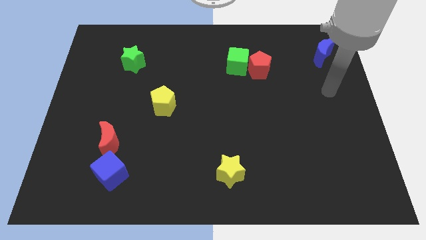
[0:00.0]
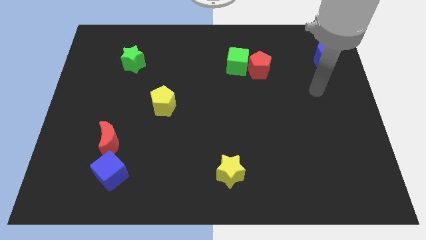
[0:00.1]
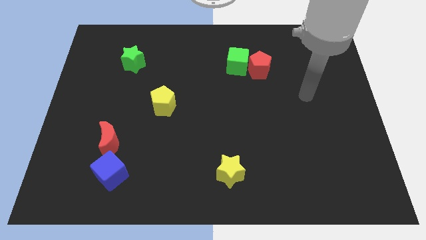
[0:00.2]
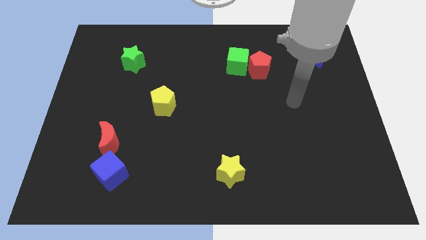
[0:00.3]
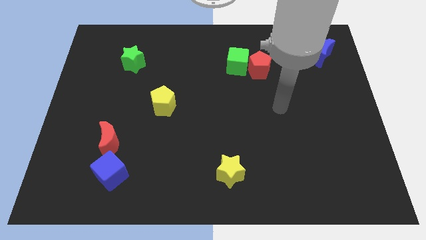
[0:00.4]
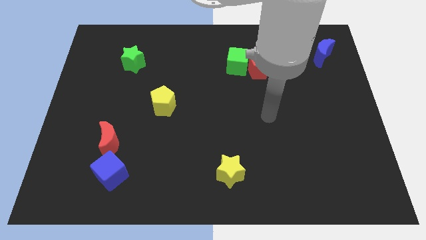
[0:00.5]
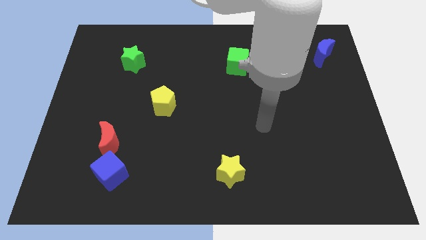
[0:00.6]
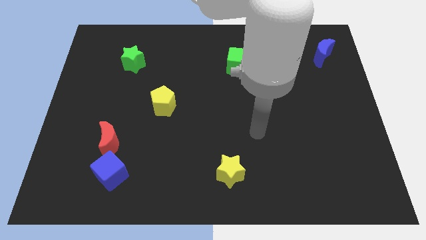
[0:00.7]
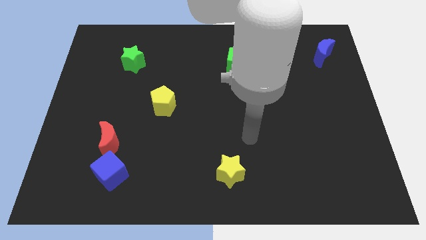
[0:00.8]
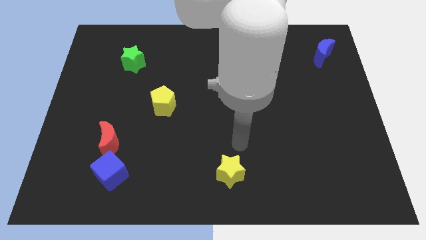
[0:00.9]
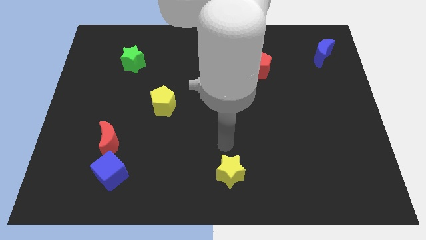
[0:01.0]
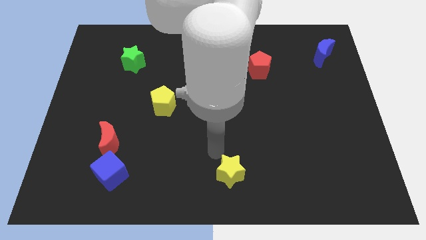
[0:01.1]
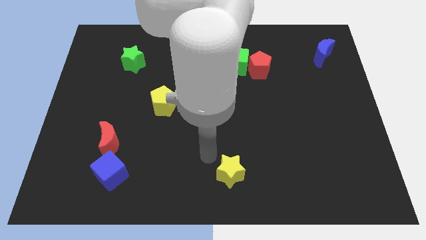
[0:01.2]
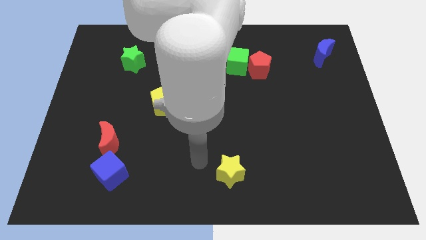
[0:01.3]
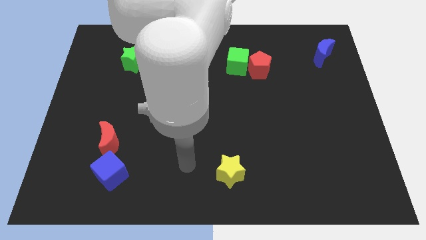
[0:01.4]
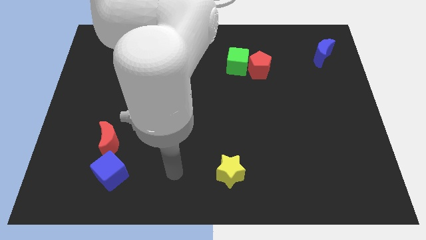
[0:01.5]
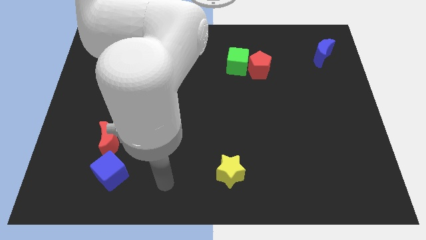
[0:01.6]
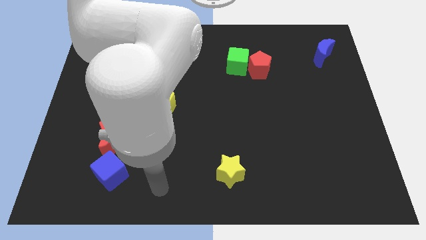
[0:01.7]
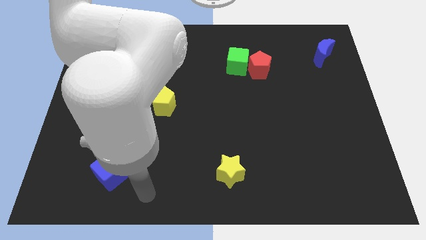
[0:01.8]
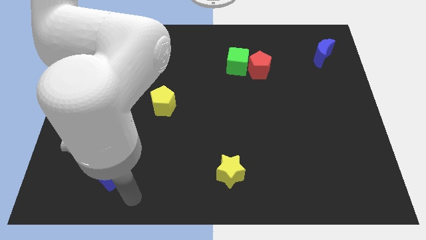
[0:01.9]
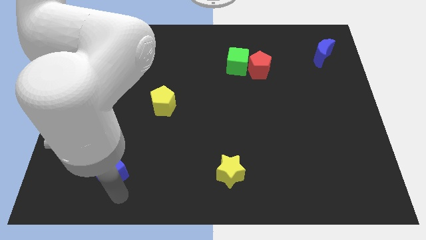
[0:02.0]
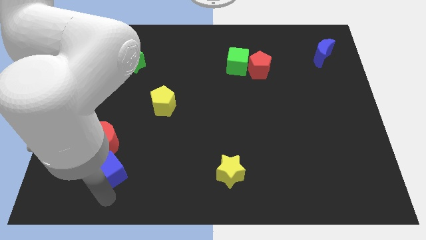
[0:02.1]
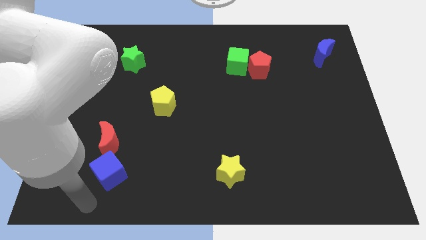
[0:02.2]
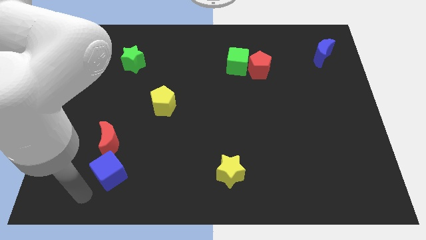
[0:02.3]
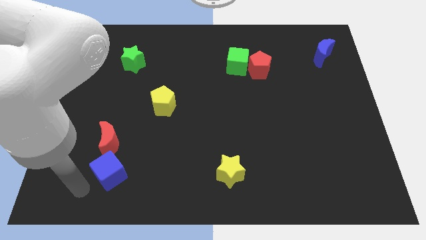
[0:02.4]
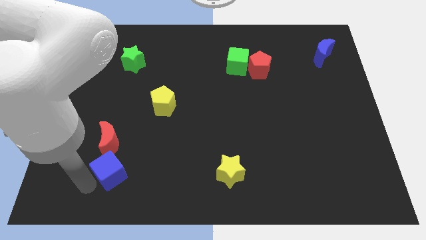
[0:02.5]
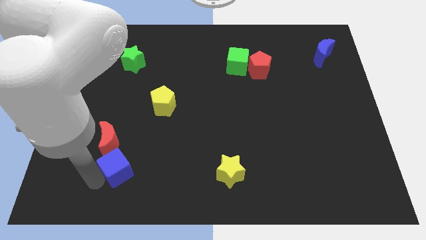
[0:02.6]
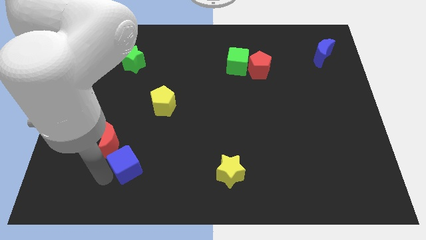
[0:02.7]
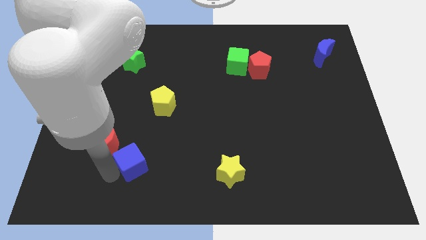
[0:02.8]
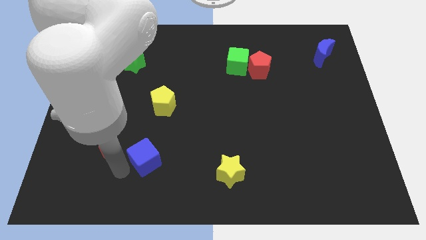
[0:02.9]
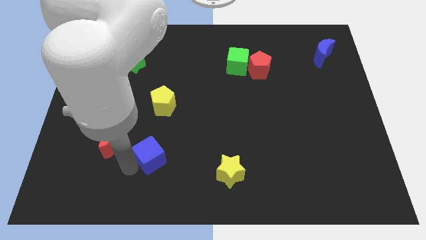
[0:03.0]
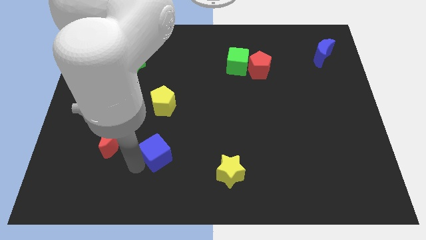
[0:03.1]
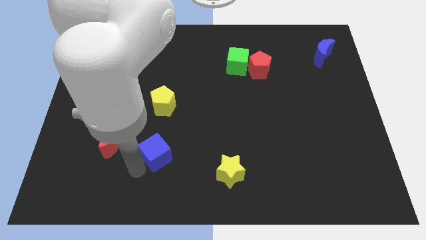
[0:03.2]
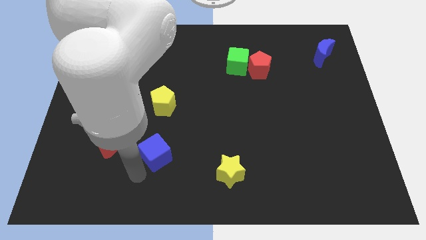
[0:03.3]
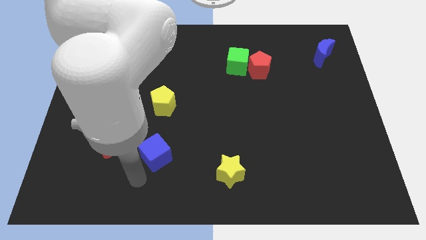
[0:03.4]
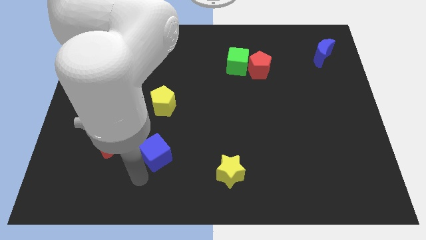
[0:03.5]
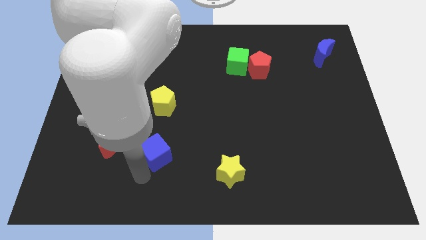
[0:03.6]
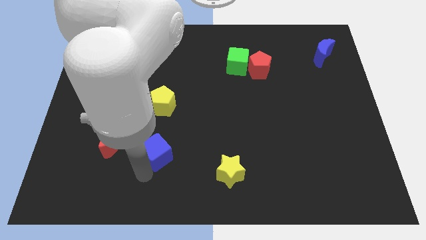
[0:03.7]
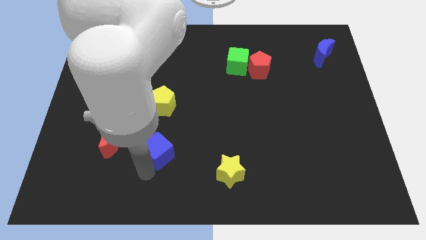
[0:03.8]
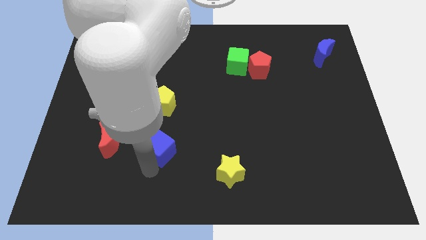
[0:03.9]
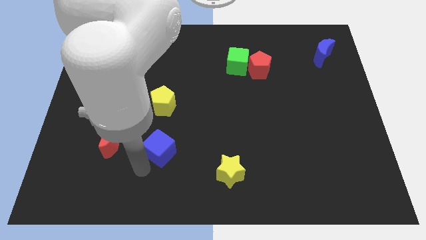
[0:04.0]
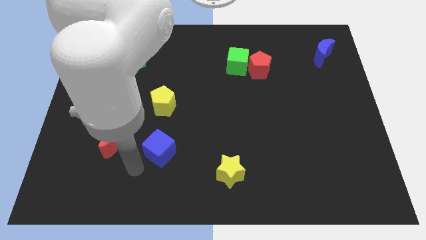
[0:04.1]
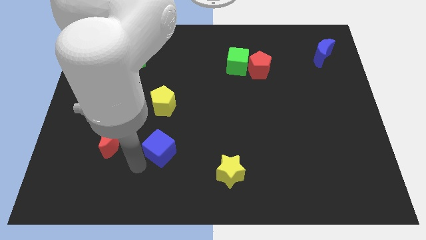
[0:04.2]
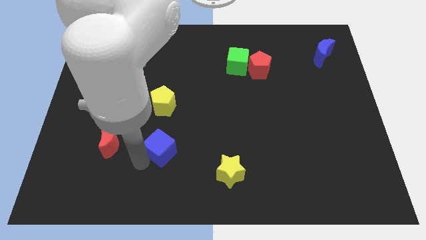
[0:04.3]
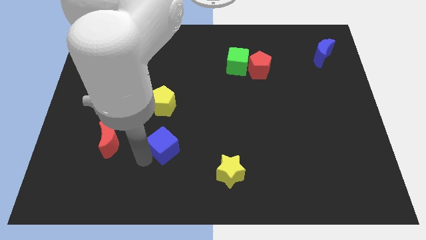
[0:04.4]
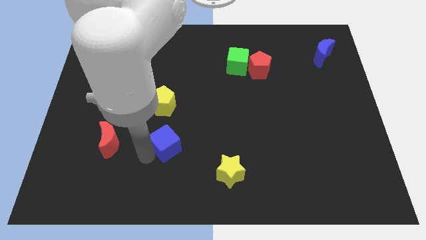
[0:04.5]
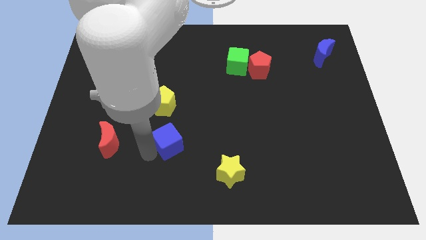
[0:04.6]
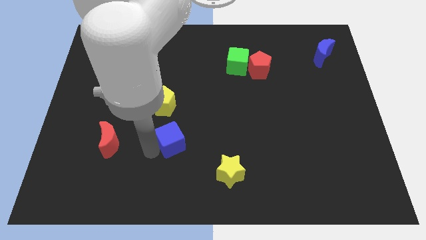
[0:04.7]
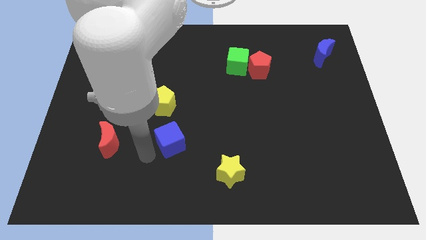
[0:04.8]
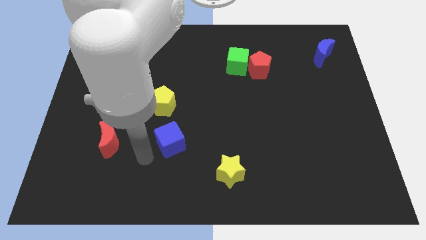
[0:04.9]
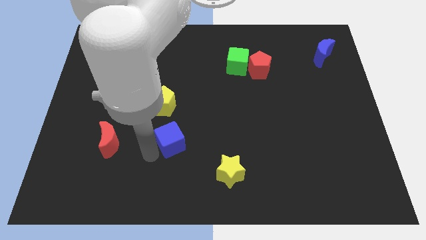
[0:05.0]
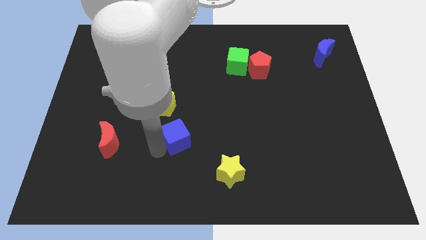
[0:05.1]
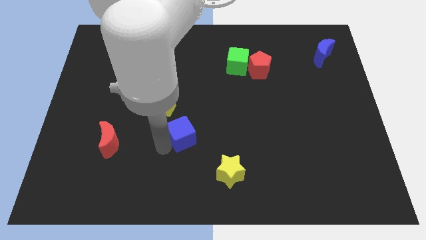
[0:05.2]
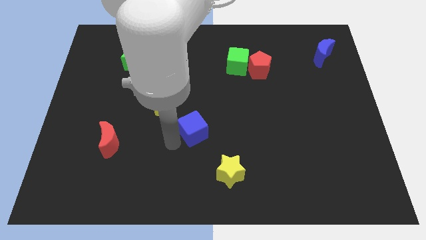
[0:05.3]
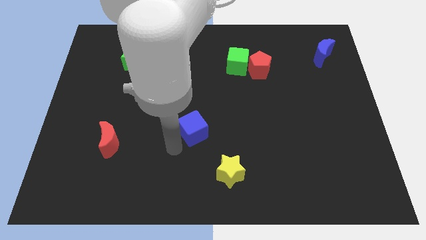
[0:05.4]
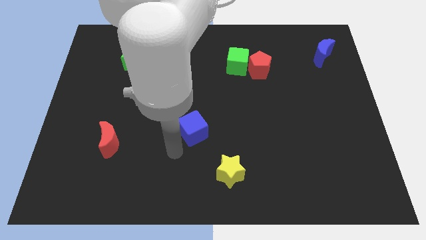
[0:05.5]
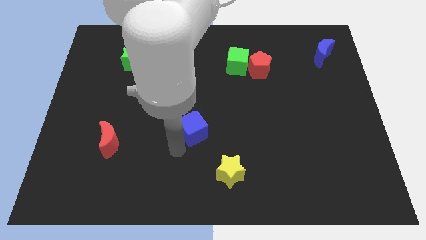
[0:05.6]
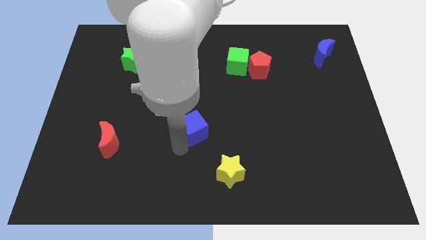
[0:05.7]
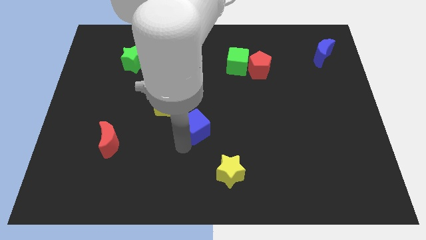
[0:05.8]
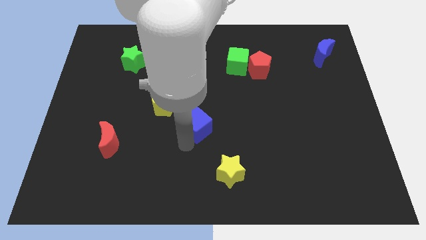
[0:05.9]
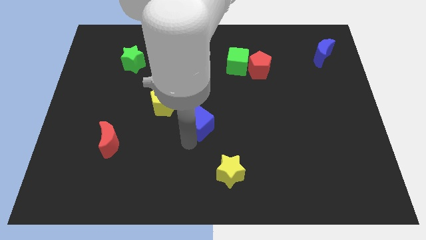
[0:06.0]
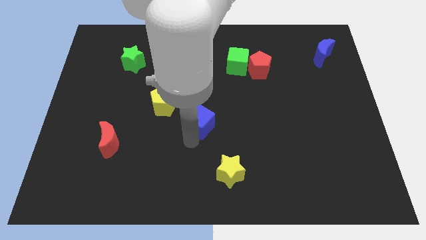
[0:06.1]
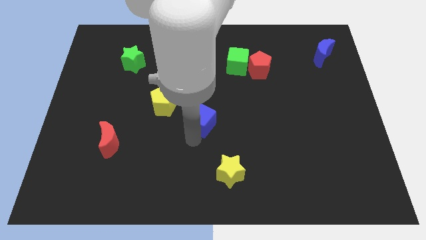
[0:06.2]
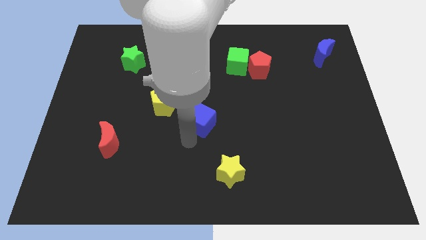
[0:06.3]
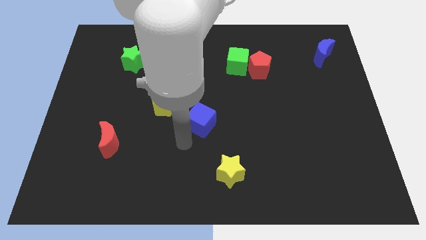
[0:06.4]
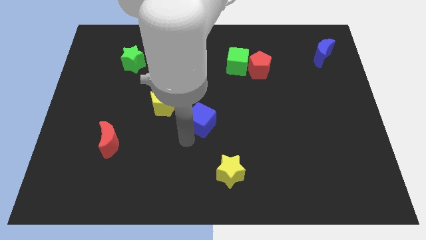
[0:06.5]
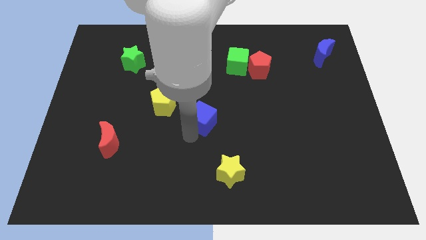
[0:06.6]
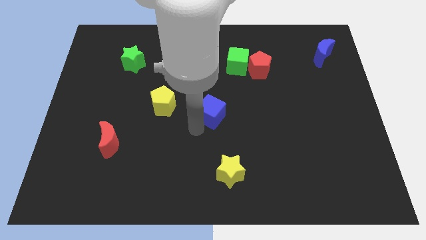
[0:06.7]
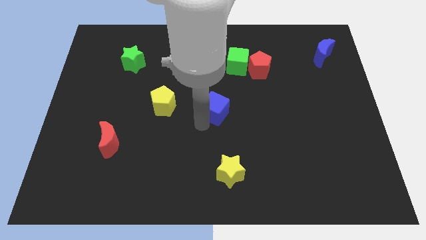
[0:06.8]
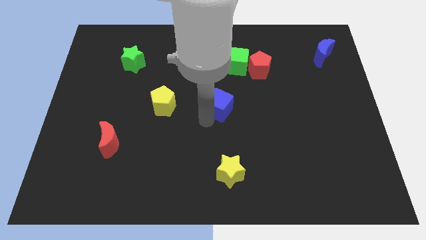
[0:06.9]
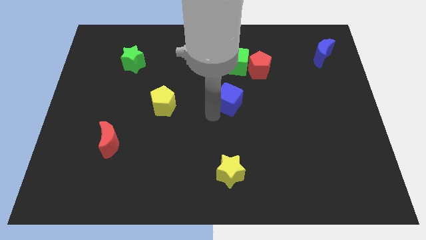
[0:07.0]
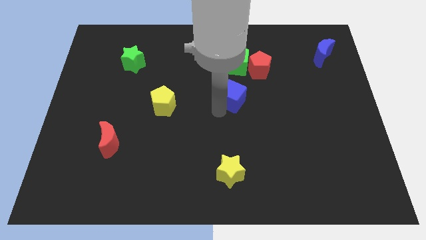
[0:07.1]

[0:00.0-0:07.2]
push the blue cube diagonally down and to the left of the red pentagon

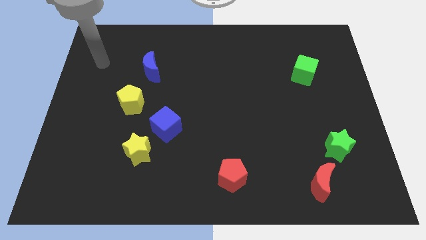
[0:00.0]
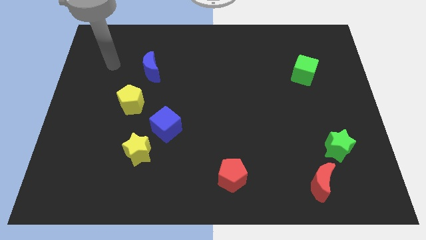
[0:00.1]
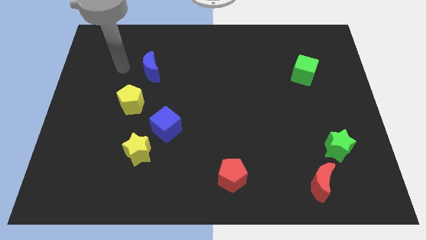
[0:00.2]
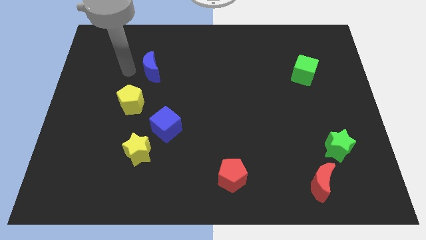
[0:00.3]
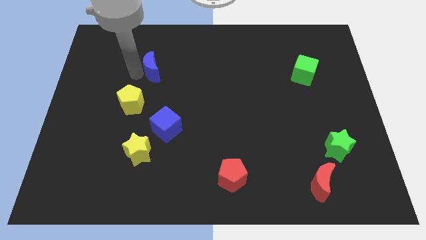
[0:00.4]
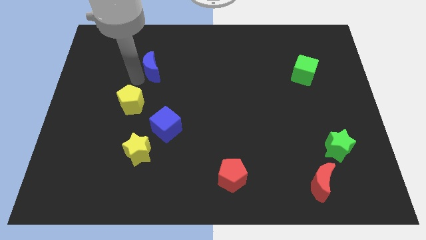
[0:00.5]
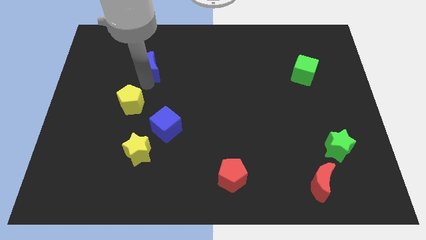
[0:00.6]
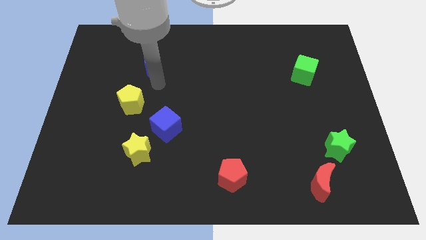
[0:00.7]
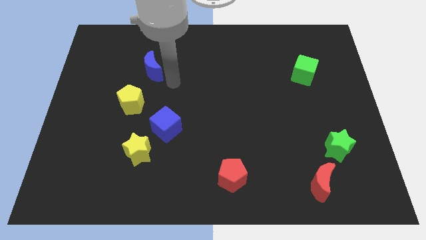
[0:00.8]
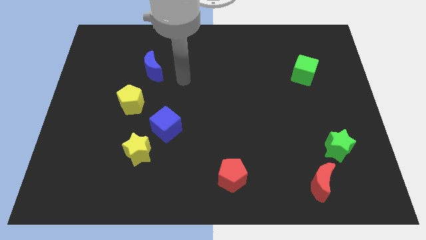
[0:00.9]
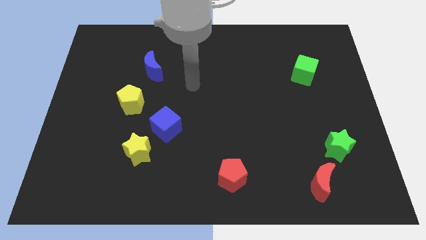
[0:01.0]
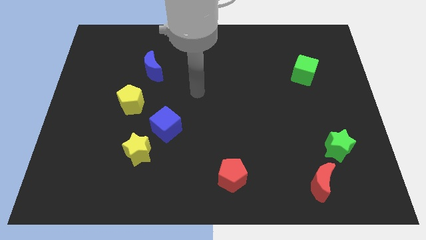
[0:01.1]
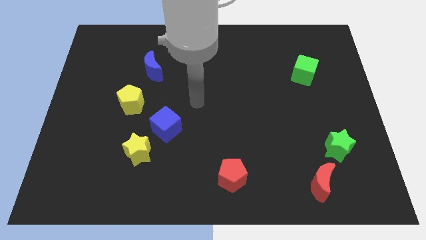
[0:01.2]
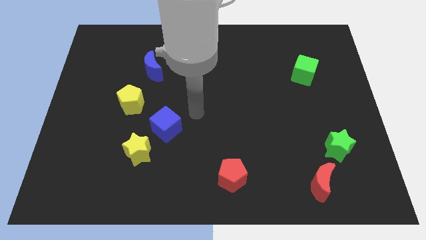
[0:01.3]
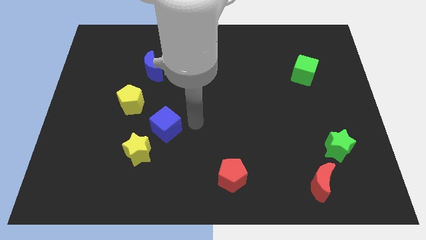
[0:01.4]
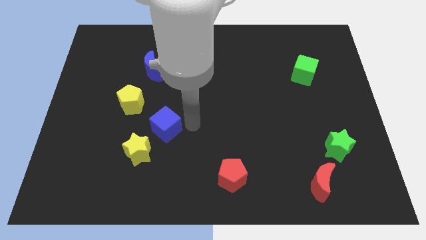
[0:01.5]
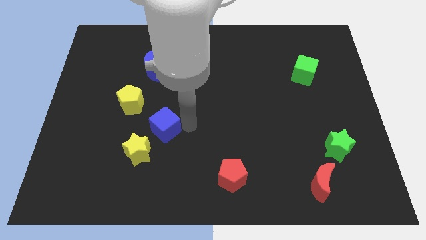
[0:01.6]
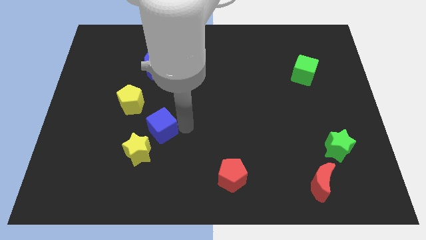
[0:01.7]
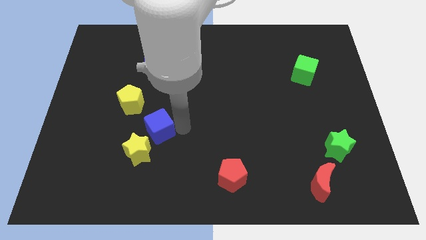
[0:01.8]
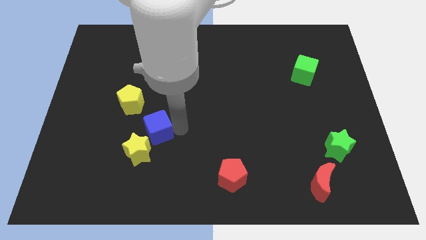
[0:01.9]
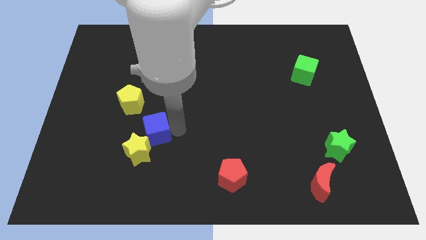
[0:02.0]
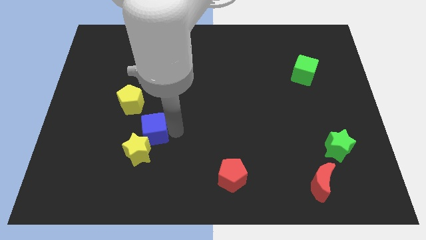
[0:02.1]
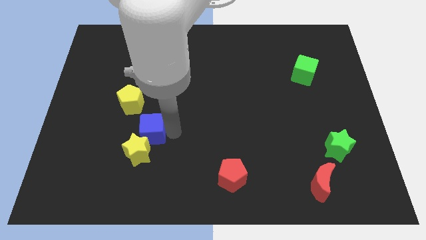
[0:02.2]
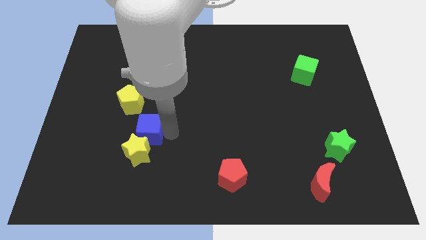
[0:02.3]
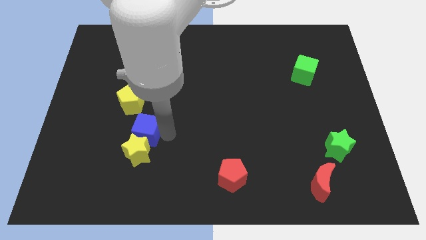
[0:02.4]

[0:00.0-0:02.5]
put the blue cube to the top left side of the yellow star
